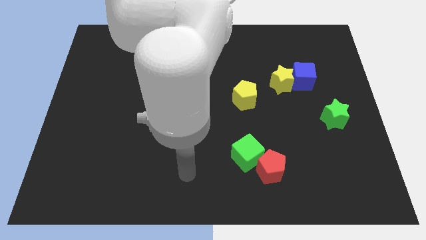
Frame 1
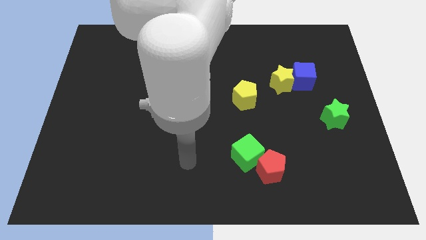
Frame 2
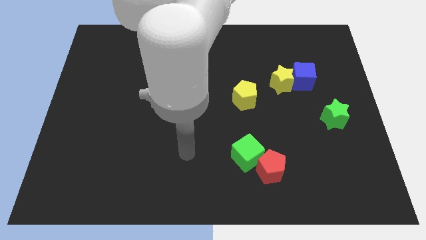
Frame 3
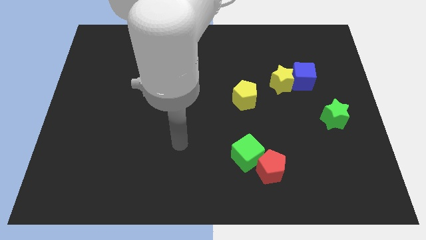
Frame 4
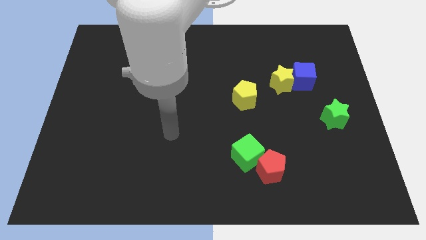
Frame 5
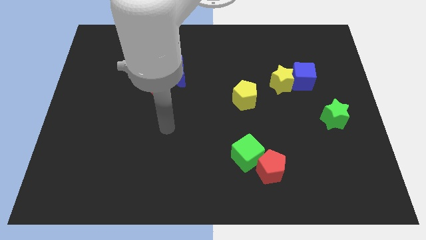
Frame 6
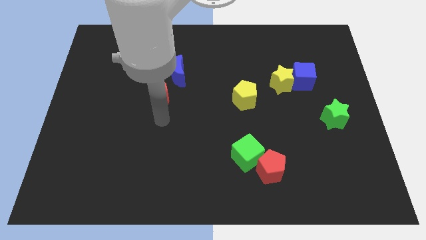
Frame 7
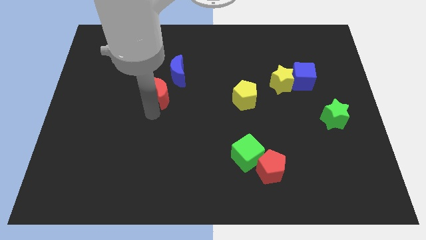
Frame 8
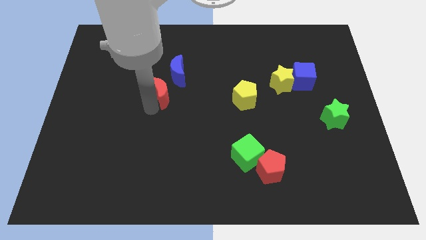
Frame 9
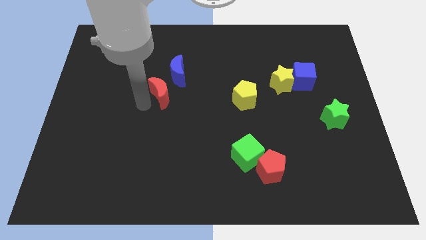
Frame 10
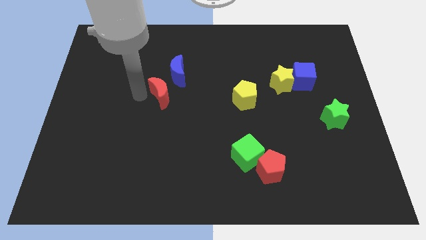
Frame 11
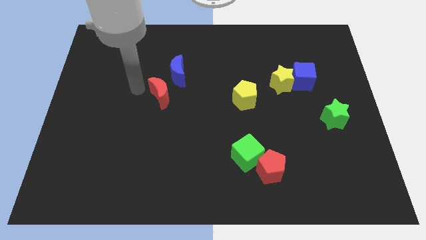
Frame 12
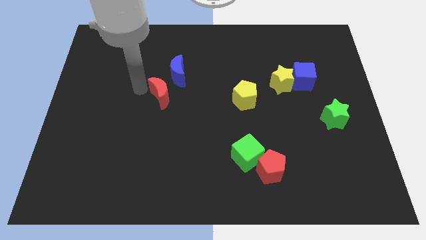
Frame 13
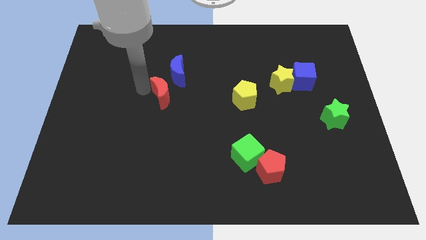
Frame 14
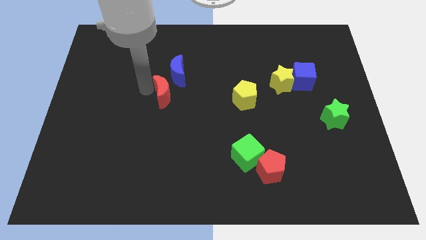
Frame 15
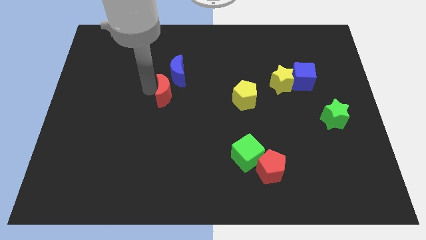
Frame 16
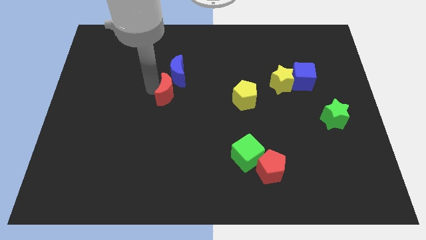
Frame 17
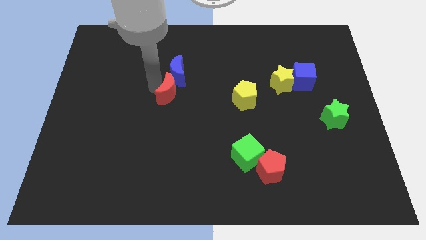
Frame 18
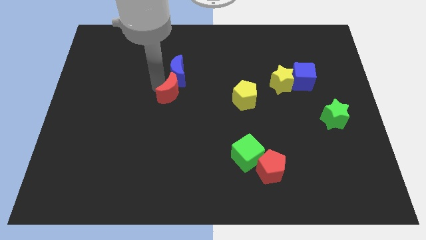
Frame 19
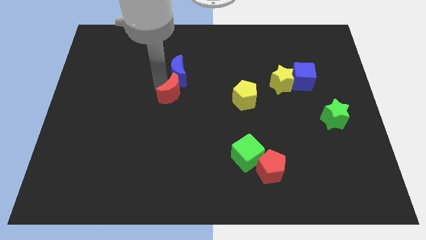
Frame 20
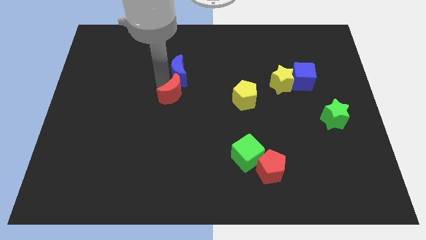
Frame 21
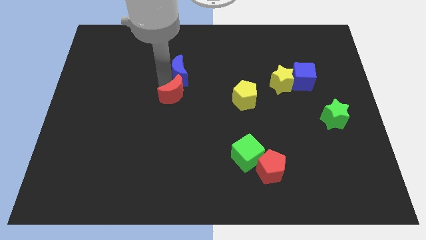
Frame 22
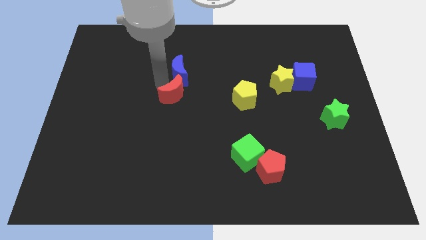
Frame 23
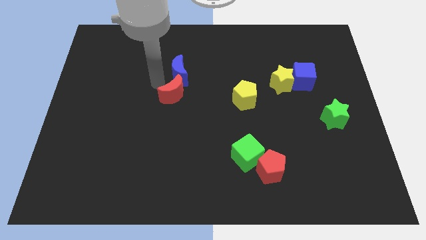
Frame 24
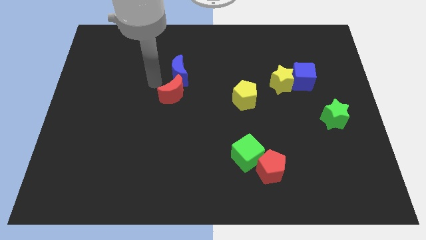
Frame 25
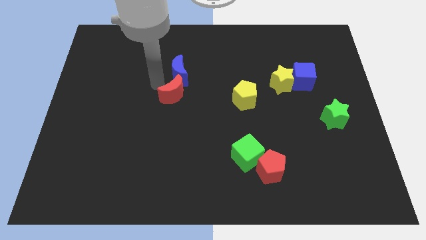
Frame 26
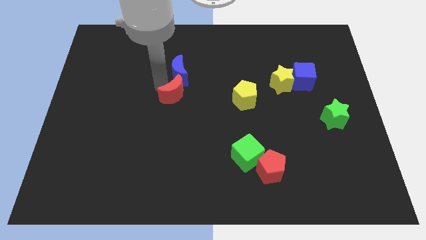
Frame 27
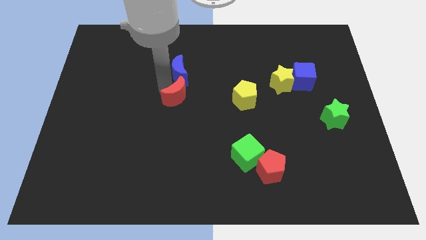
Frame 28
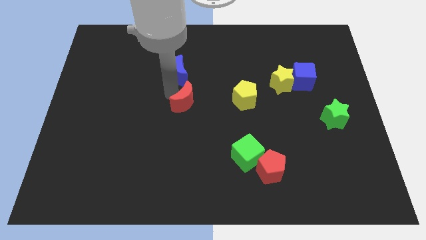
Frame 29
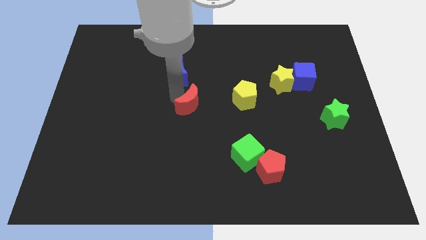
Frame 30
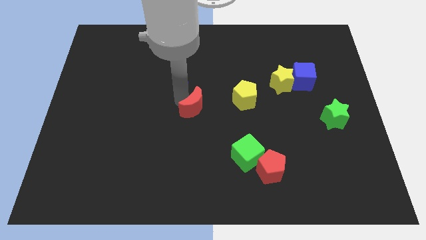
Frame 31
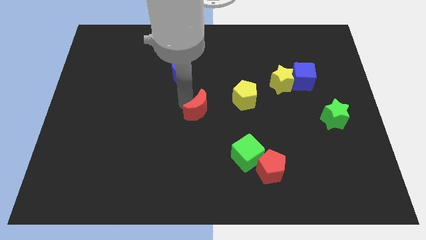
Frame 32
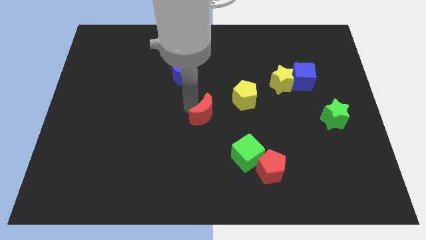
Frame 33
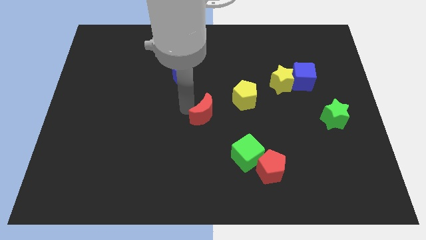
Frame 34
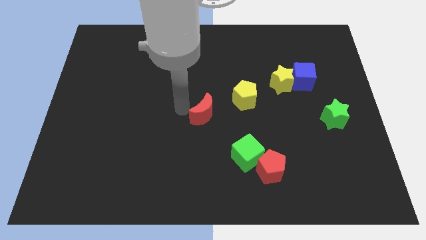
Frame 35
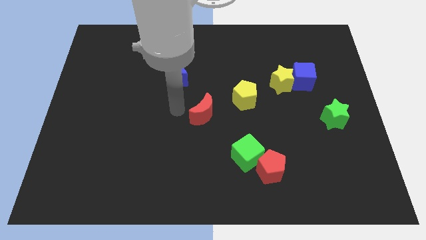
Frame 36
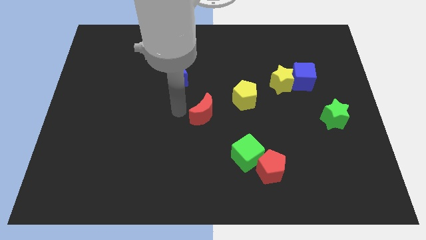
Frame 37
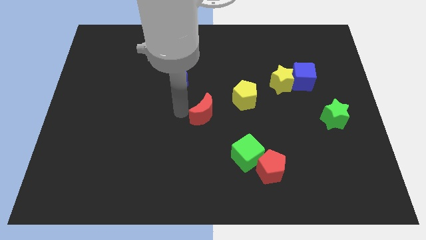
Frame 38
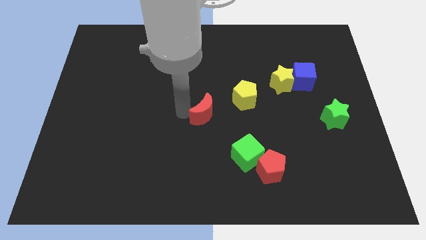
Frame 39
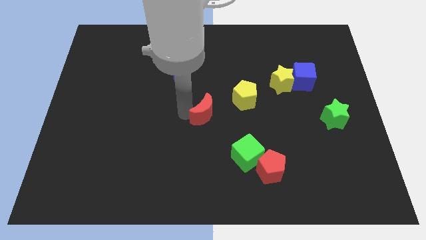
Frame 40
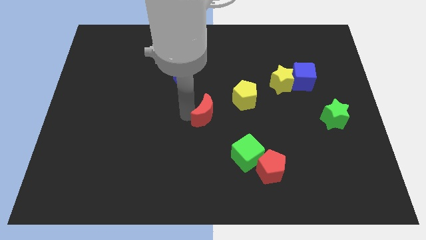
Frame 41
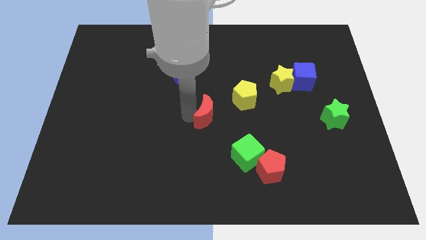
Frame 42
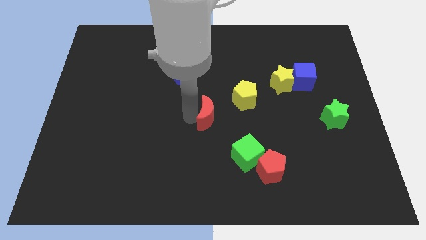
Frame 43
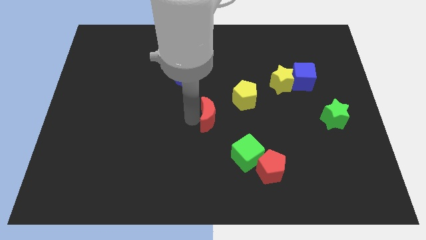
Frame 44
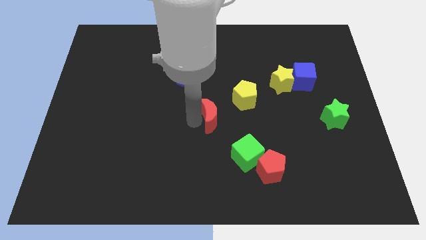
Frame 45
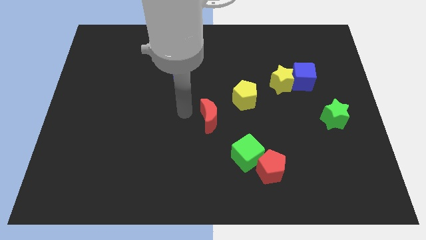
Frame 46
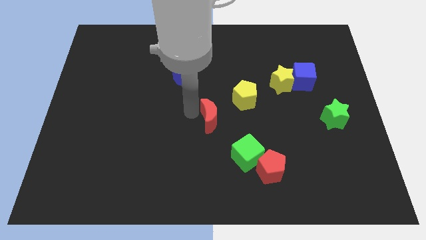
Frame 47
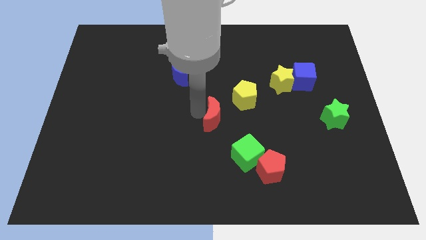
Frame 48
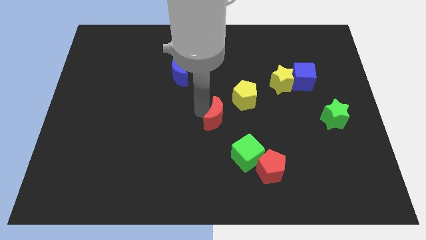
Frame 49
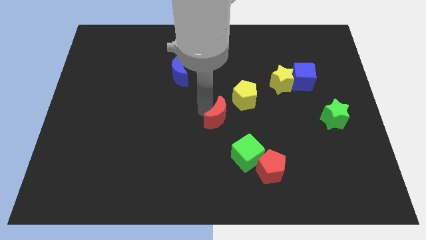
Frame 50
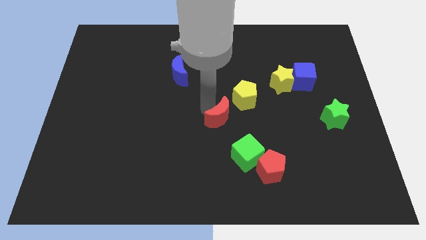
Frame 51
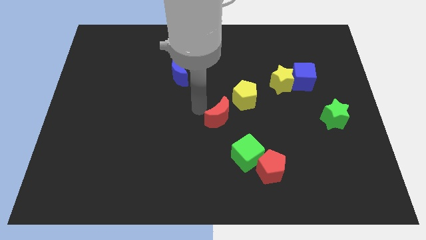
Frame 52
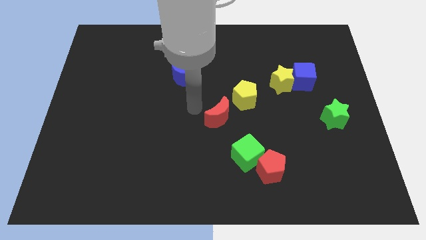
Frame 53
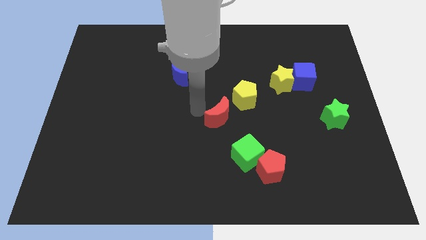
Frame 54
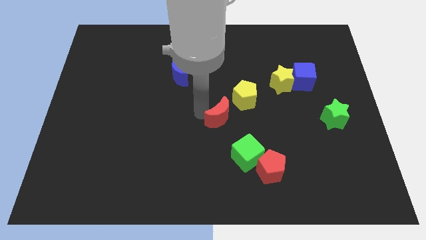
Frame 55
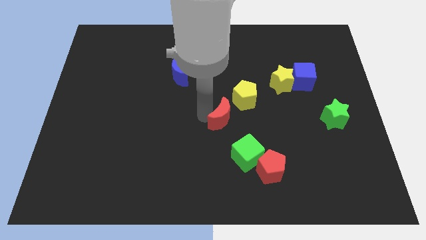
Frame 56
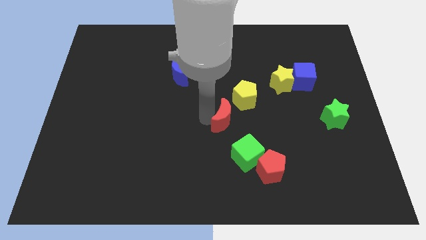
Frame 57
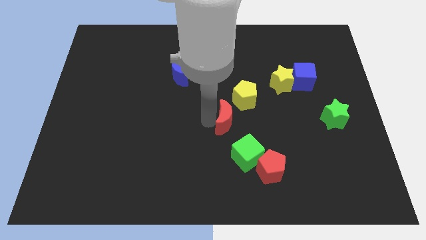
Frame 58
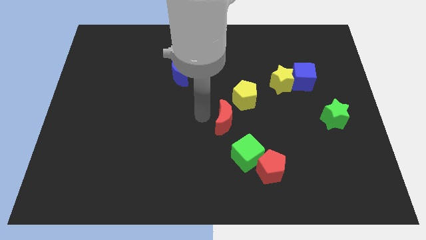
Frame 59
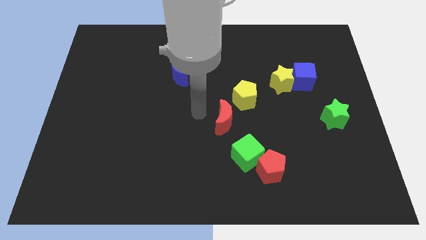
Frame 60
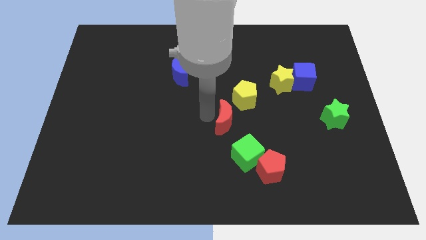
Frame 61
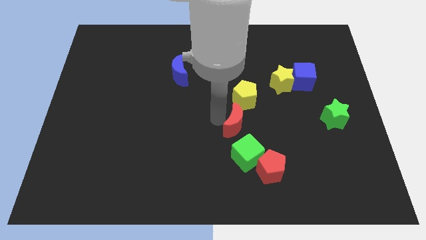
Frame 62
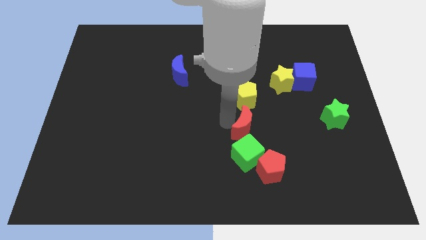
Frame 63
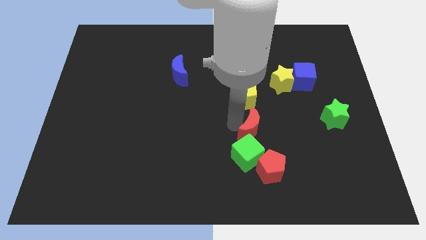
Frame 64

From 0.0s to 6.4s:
move the red moon to the top right of the green cube
